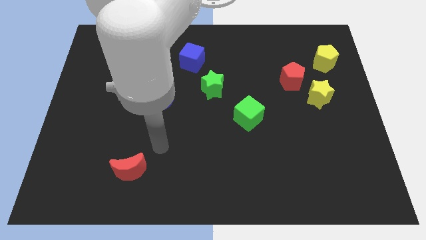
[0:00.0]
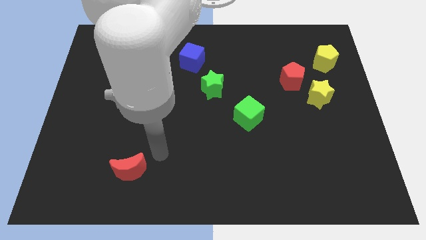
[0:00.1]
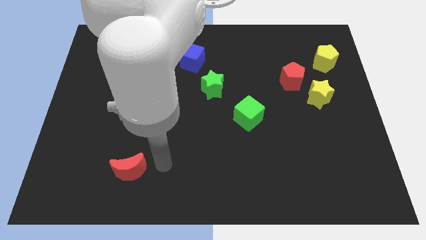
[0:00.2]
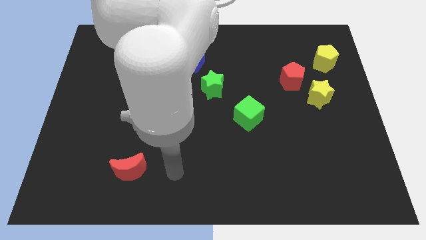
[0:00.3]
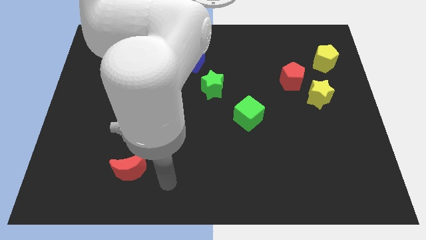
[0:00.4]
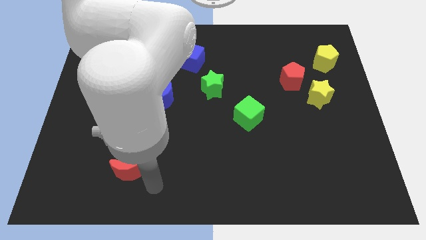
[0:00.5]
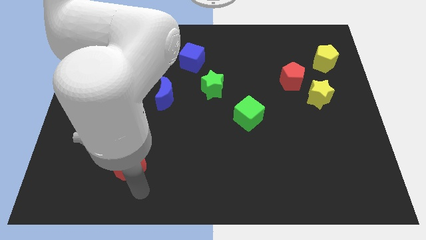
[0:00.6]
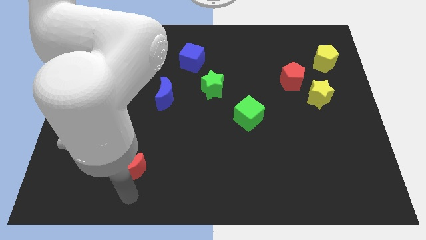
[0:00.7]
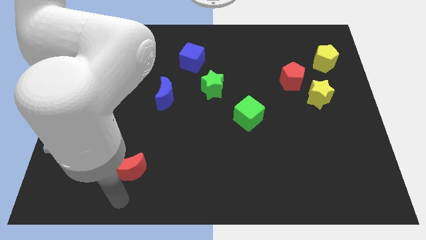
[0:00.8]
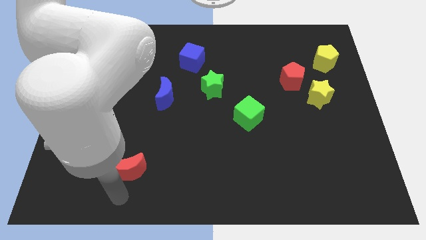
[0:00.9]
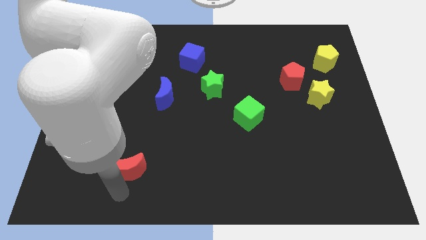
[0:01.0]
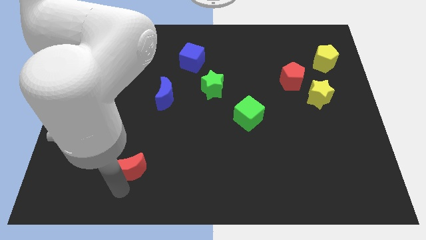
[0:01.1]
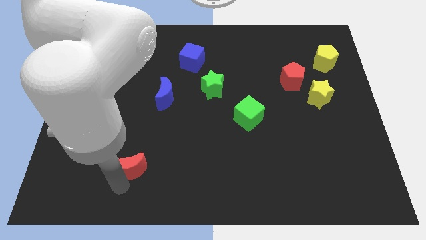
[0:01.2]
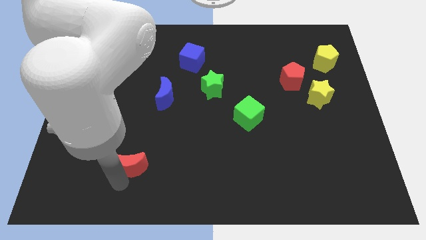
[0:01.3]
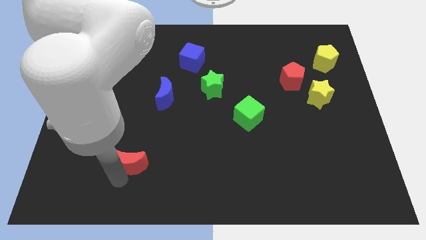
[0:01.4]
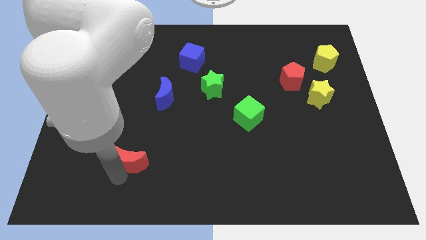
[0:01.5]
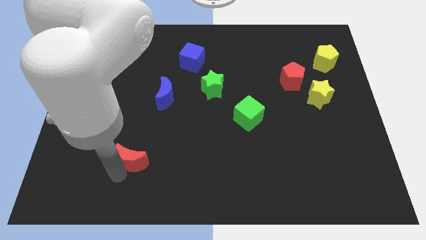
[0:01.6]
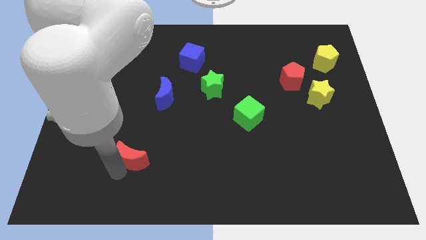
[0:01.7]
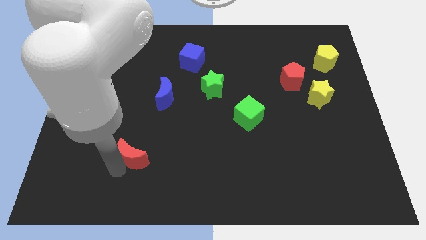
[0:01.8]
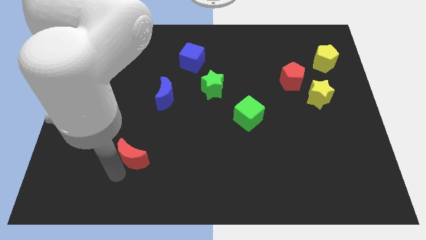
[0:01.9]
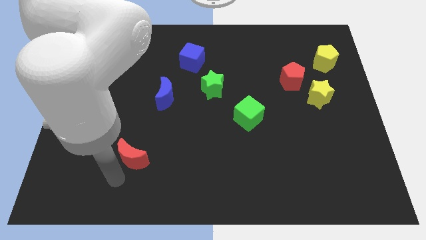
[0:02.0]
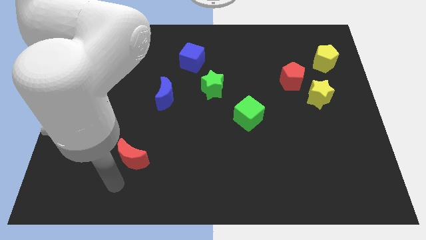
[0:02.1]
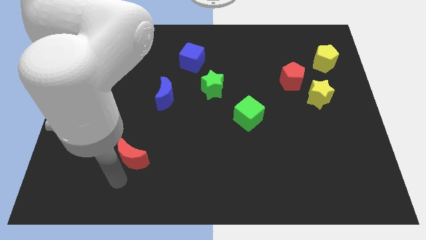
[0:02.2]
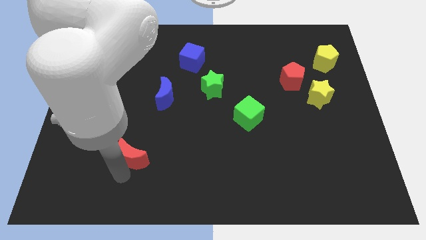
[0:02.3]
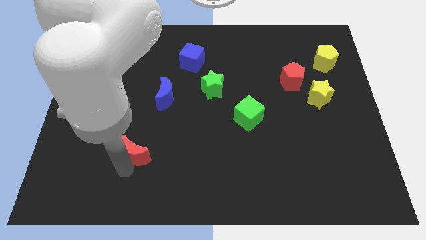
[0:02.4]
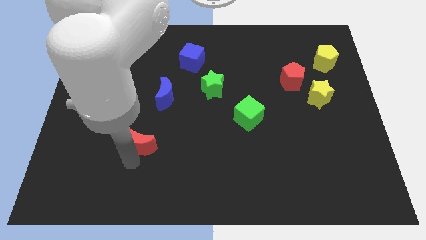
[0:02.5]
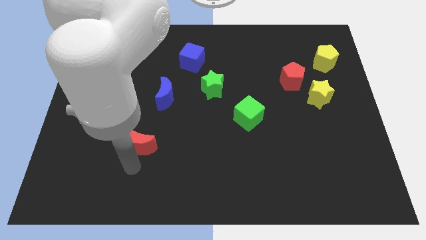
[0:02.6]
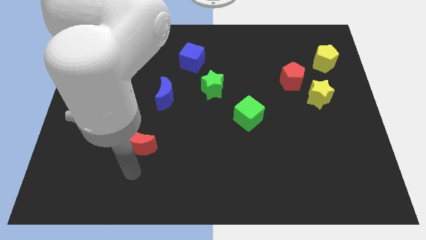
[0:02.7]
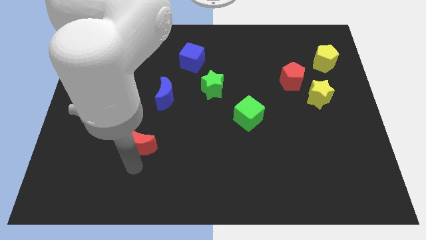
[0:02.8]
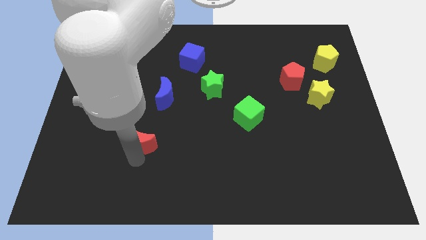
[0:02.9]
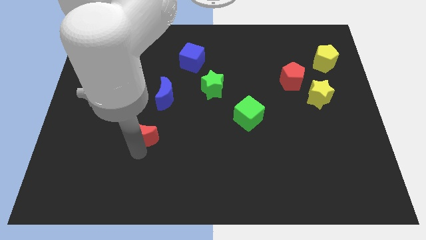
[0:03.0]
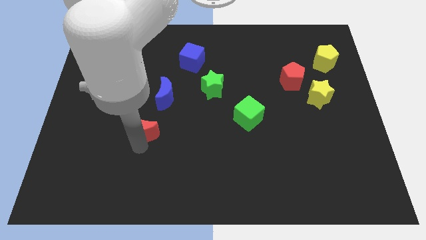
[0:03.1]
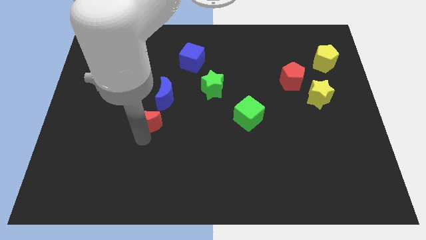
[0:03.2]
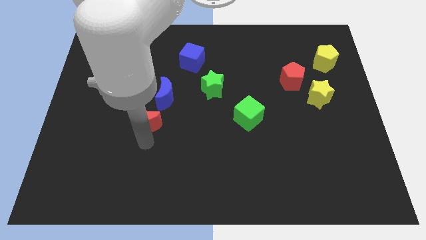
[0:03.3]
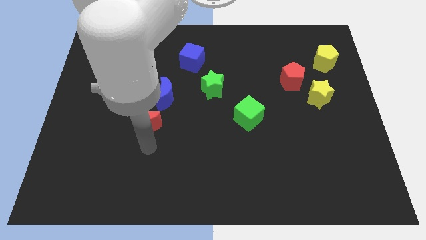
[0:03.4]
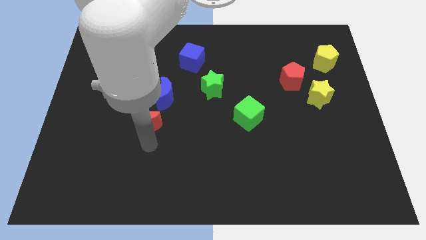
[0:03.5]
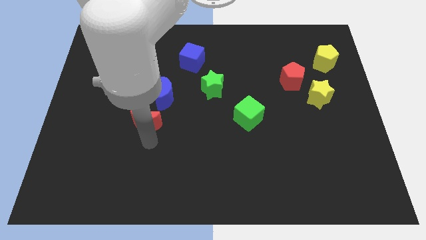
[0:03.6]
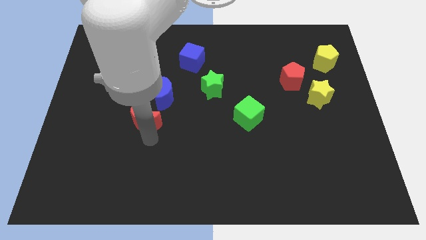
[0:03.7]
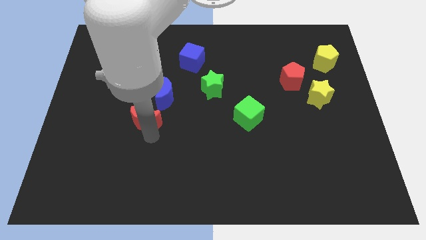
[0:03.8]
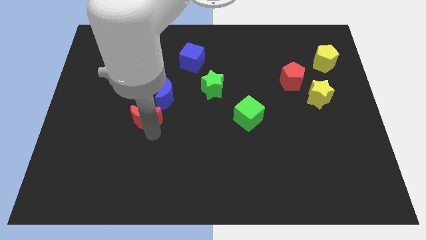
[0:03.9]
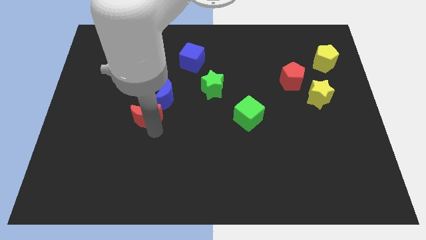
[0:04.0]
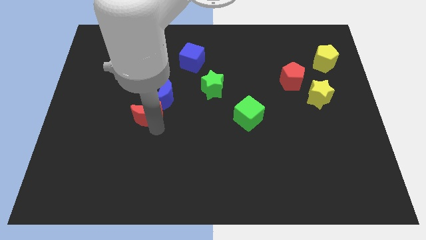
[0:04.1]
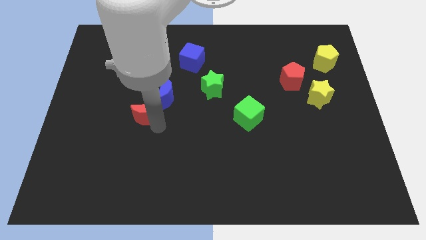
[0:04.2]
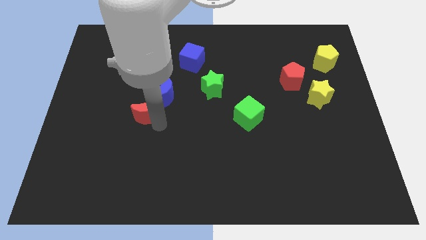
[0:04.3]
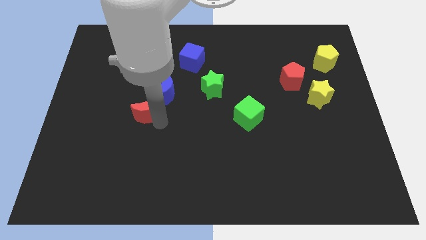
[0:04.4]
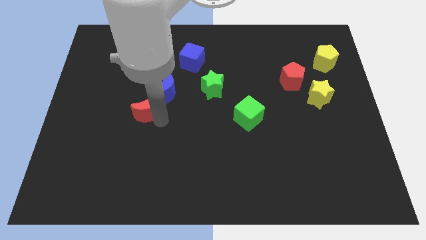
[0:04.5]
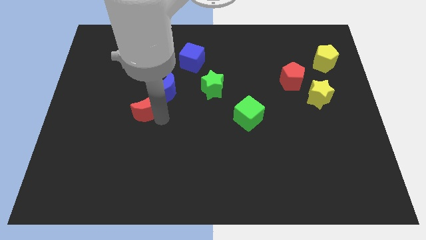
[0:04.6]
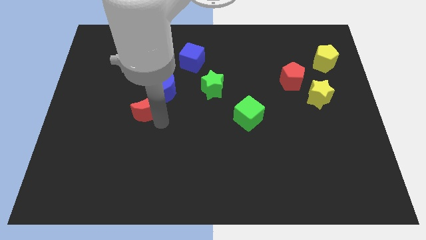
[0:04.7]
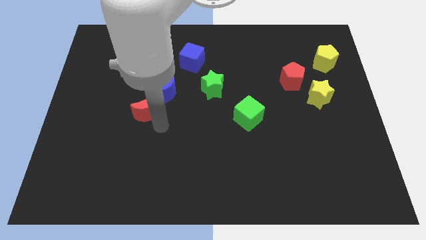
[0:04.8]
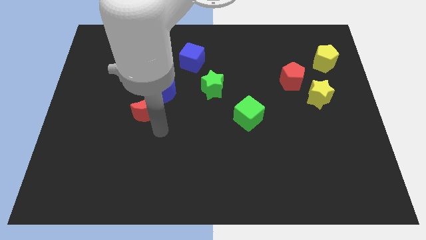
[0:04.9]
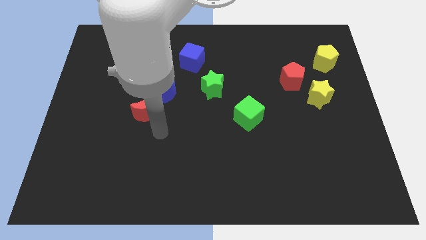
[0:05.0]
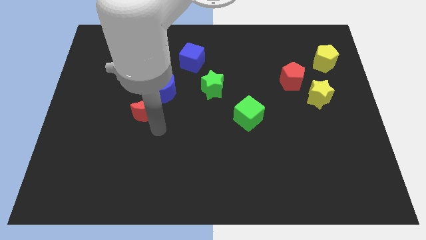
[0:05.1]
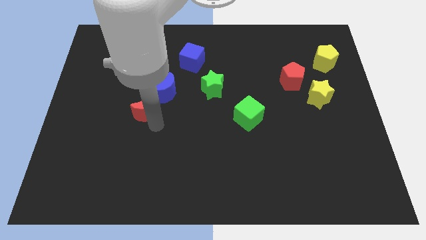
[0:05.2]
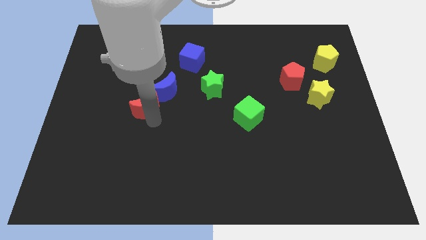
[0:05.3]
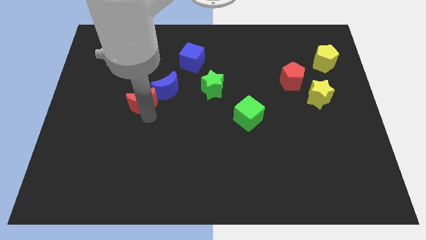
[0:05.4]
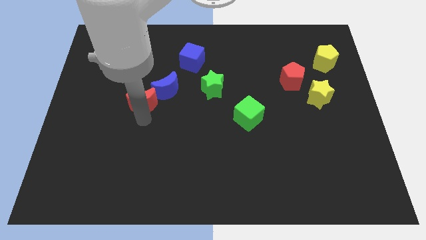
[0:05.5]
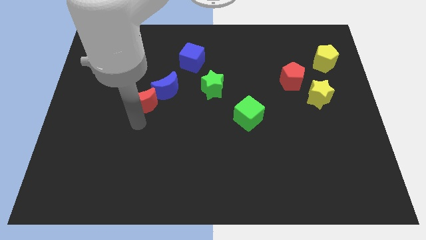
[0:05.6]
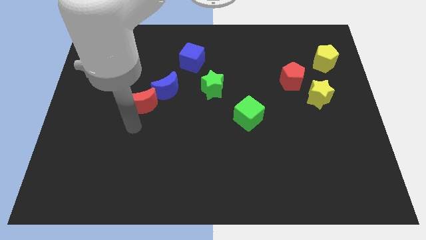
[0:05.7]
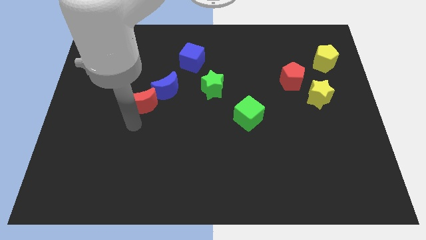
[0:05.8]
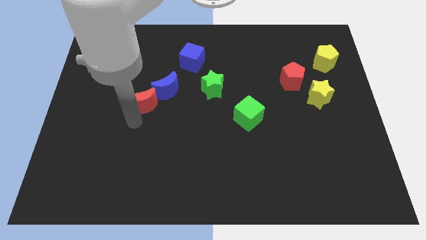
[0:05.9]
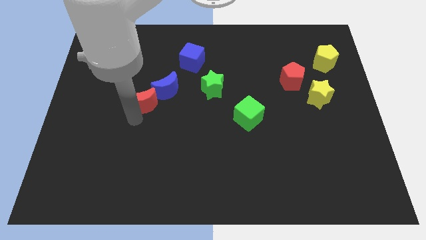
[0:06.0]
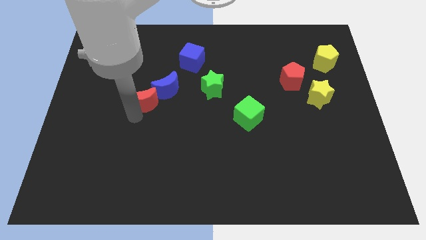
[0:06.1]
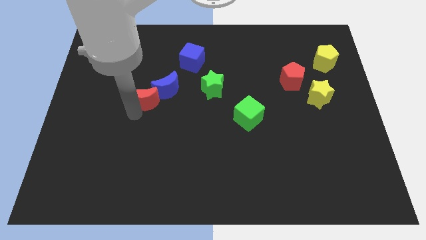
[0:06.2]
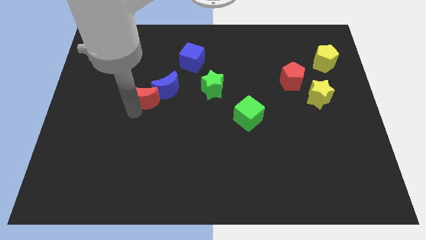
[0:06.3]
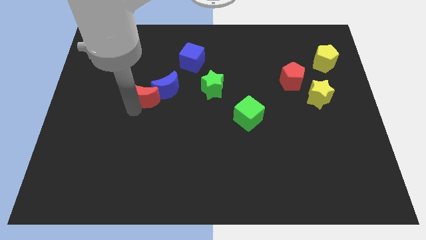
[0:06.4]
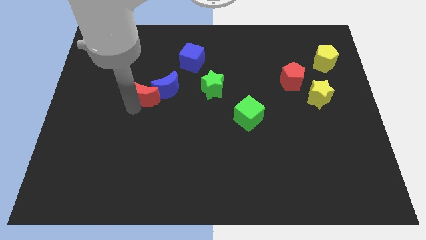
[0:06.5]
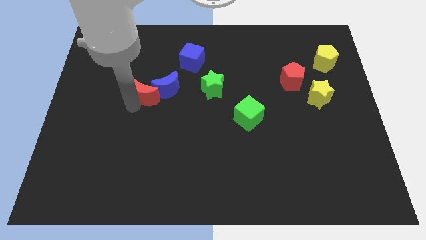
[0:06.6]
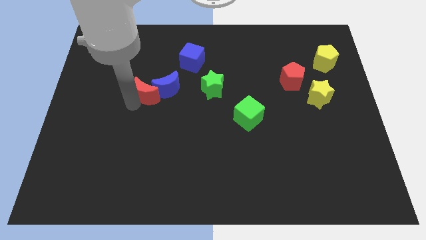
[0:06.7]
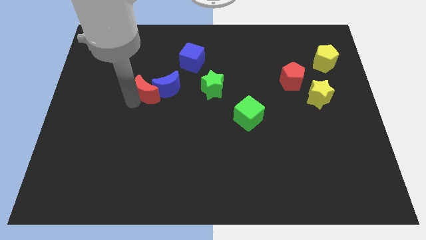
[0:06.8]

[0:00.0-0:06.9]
slide the red moon to the left of the green star

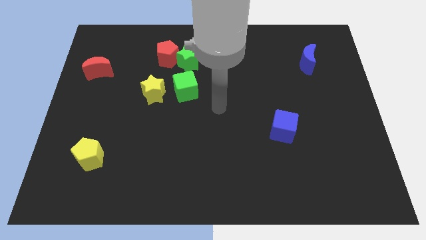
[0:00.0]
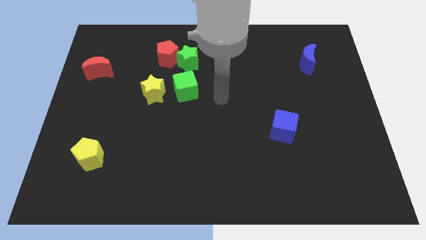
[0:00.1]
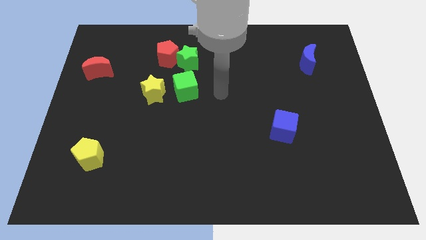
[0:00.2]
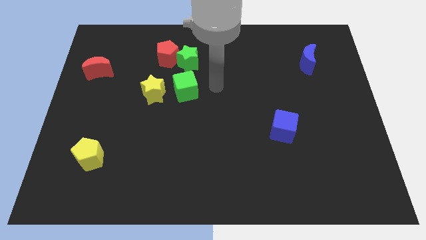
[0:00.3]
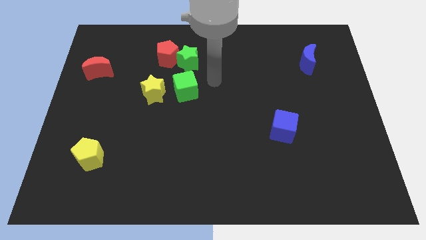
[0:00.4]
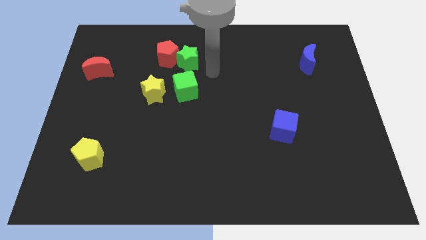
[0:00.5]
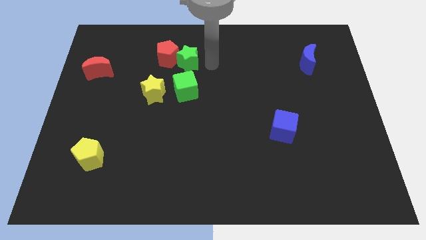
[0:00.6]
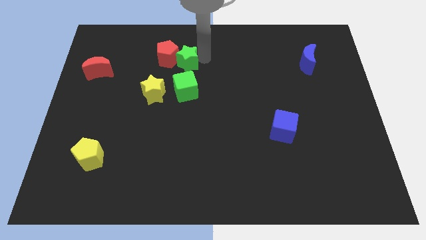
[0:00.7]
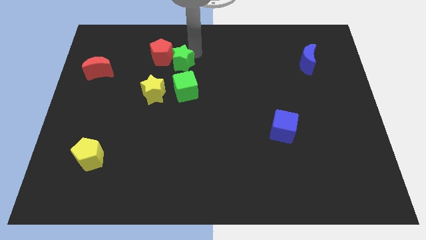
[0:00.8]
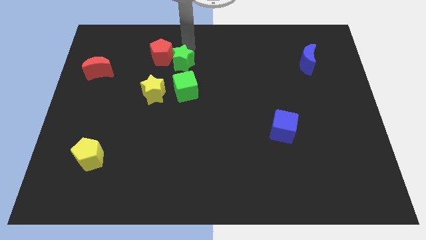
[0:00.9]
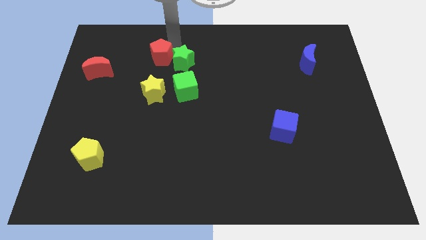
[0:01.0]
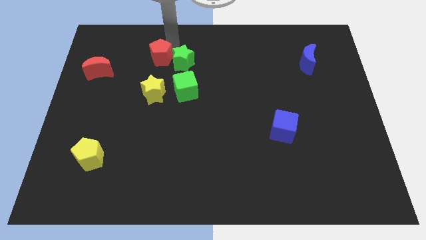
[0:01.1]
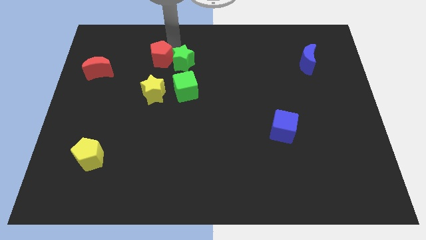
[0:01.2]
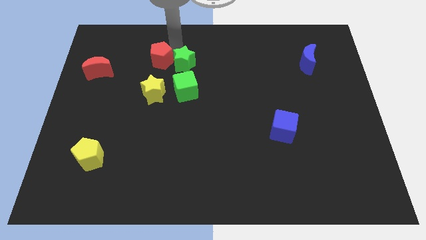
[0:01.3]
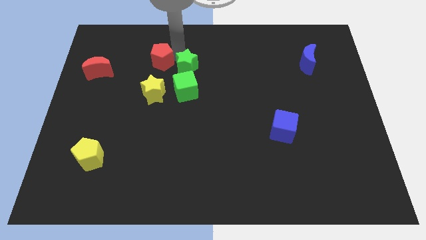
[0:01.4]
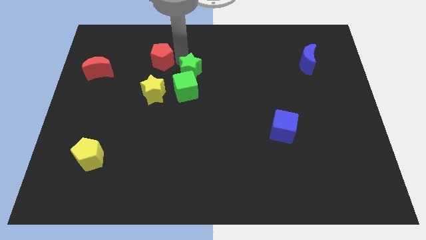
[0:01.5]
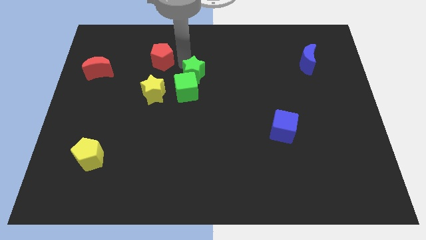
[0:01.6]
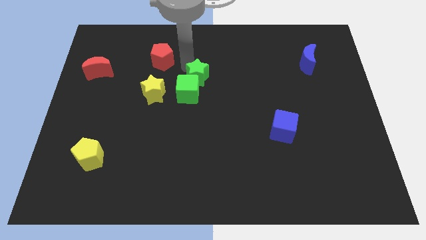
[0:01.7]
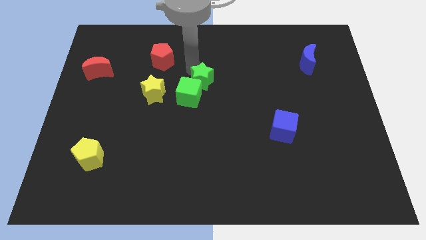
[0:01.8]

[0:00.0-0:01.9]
put the green star right of the yellow star
